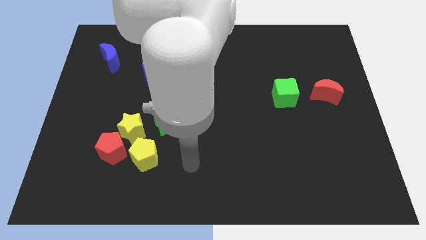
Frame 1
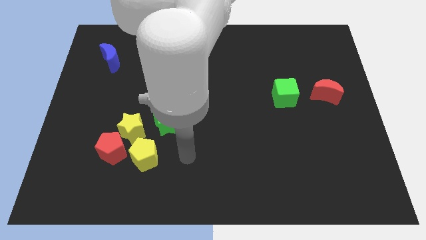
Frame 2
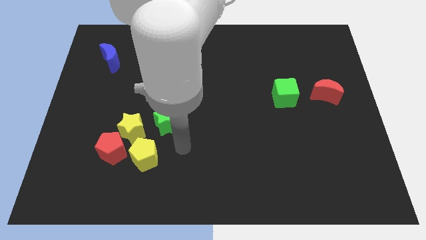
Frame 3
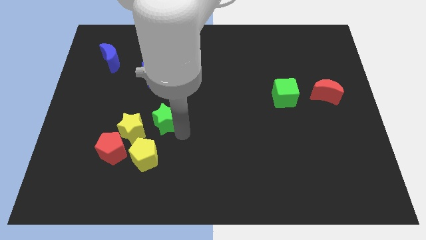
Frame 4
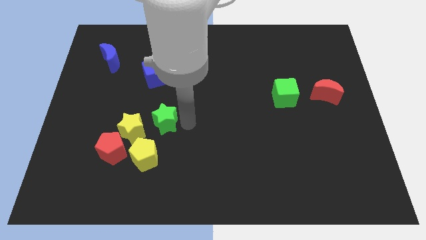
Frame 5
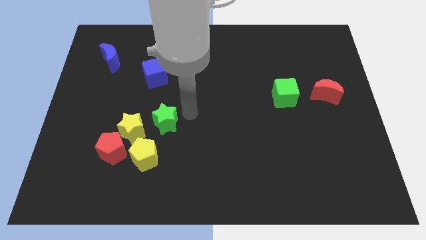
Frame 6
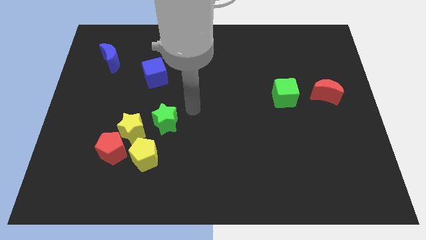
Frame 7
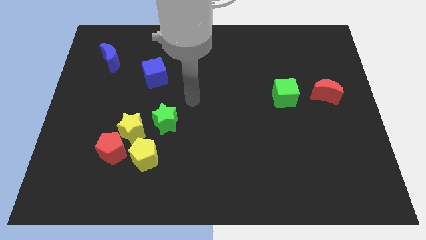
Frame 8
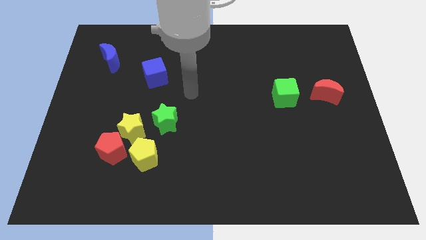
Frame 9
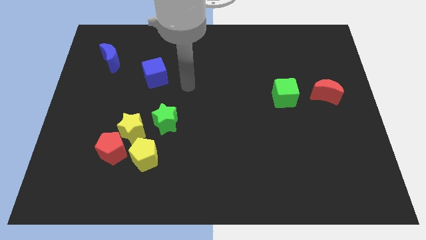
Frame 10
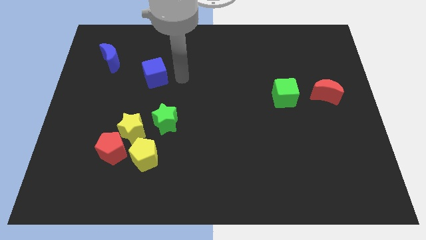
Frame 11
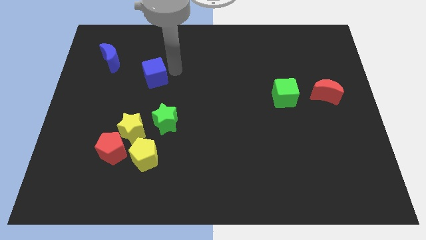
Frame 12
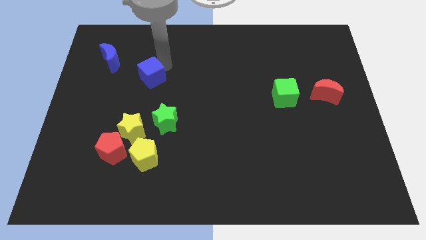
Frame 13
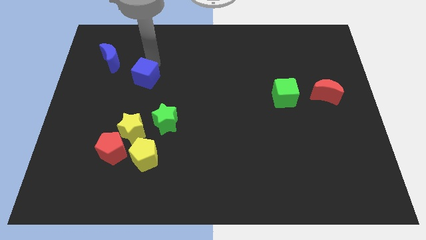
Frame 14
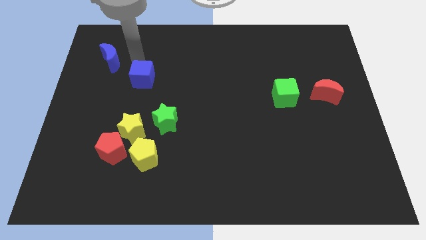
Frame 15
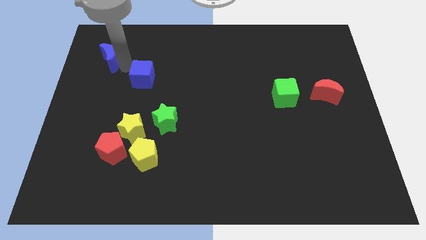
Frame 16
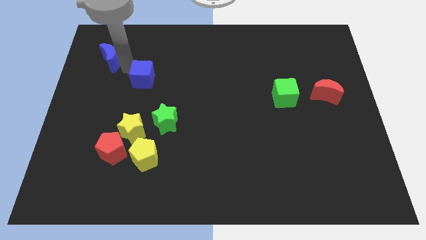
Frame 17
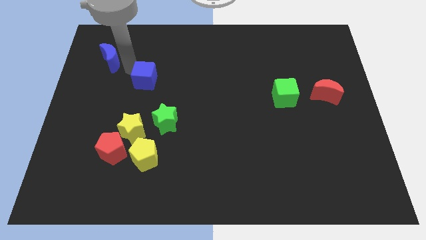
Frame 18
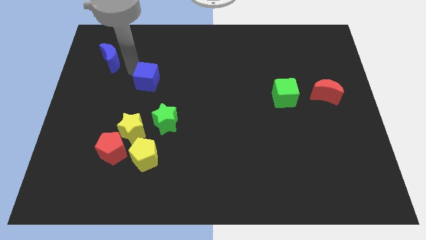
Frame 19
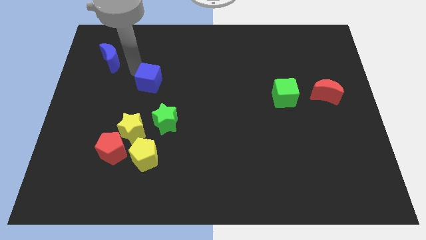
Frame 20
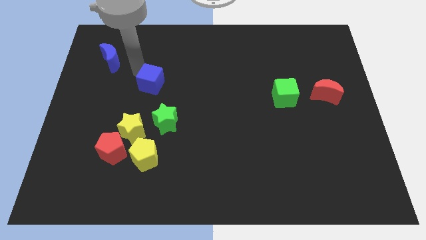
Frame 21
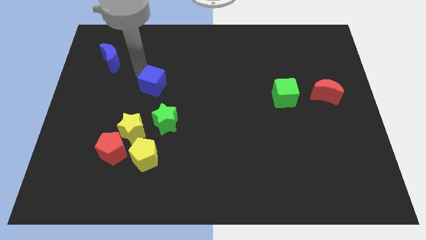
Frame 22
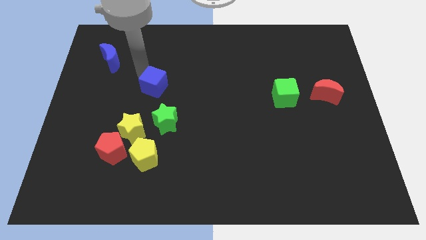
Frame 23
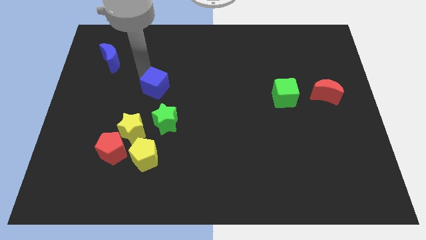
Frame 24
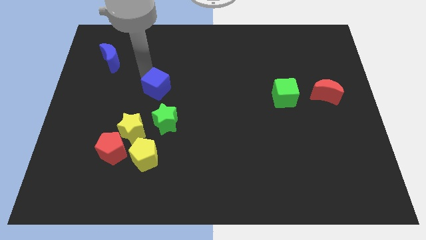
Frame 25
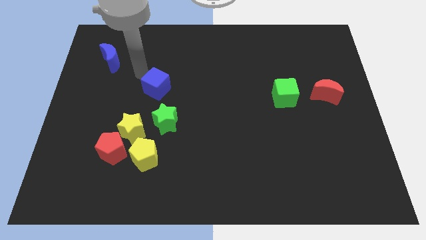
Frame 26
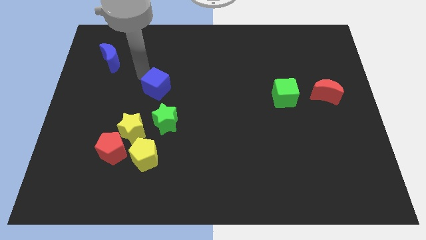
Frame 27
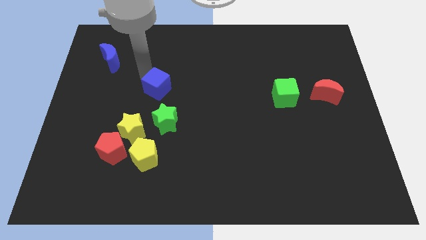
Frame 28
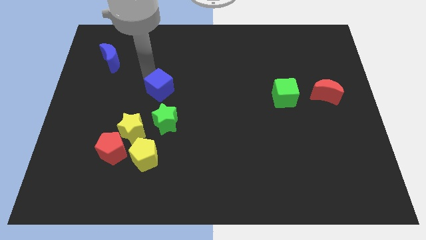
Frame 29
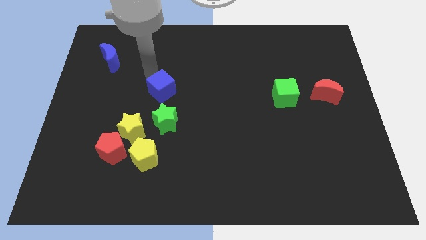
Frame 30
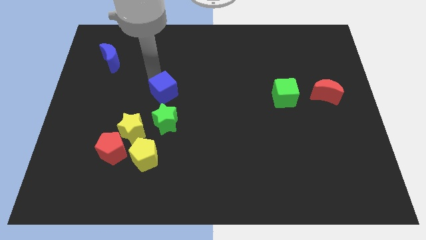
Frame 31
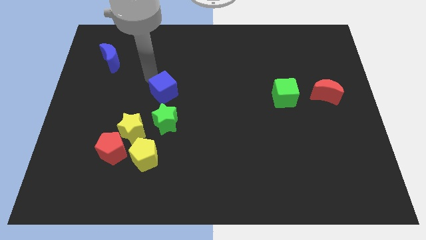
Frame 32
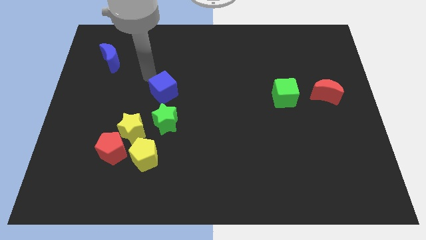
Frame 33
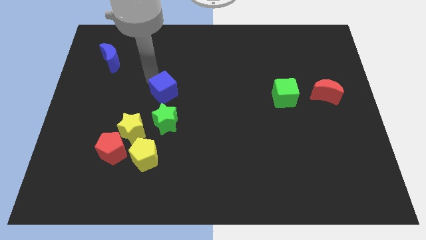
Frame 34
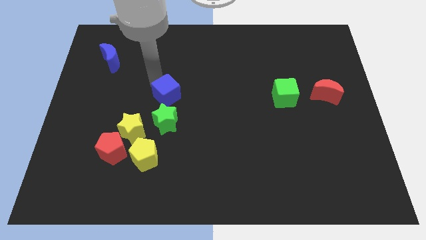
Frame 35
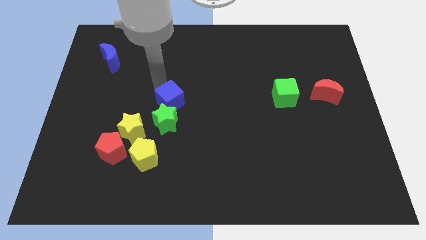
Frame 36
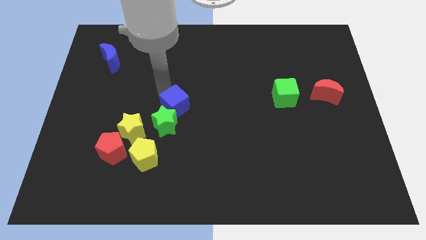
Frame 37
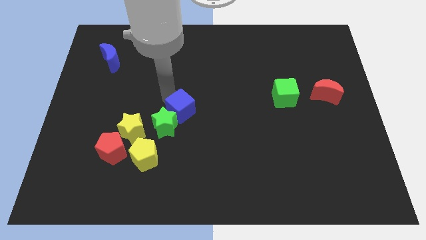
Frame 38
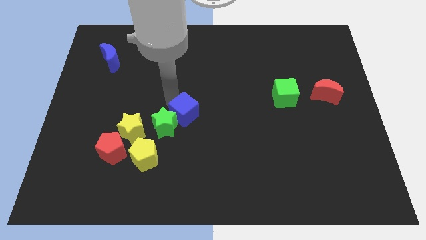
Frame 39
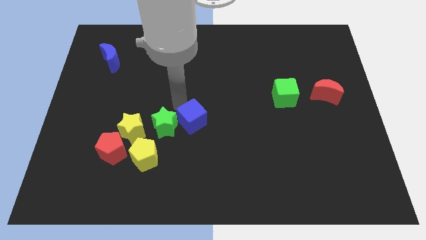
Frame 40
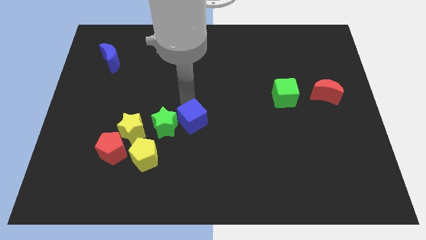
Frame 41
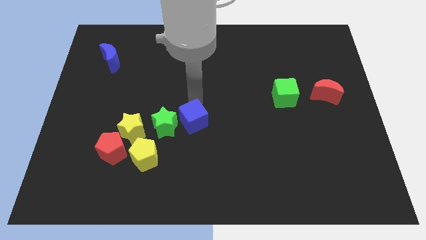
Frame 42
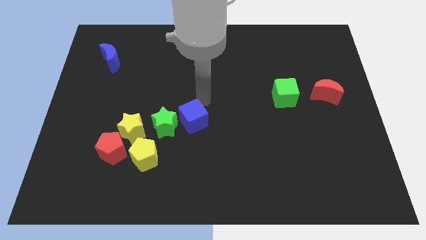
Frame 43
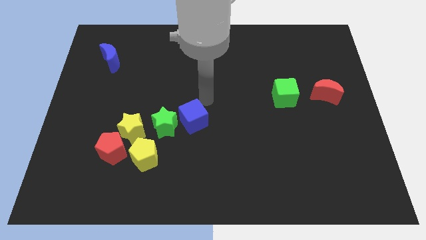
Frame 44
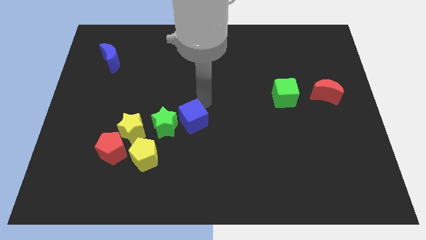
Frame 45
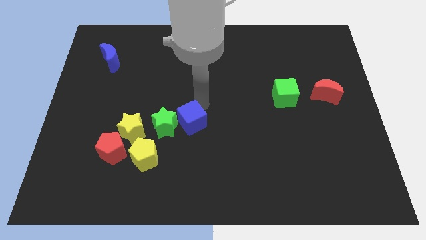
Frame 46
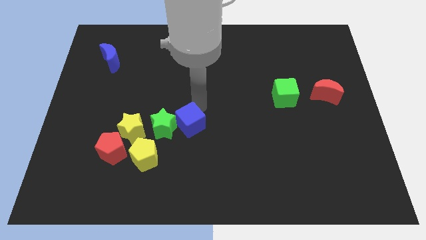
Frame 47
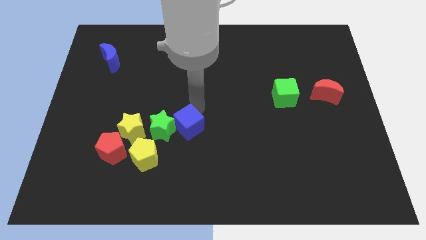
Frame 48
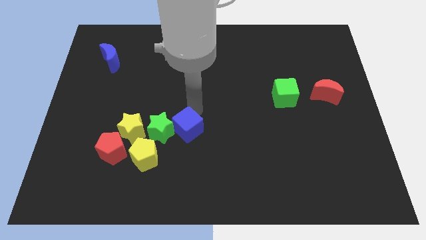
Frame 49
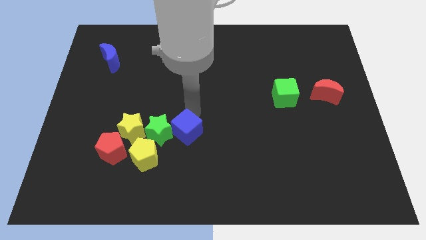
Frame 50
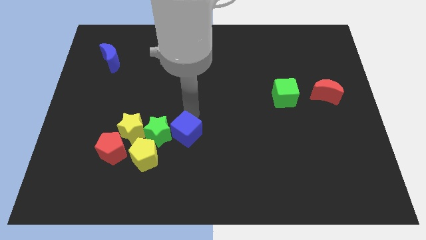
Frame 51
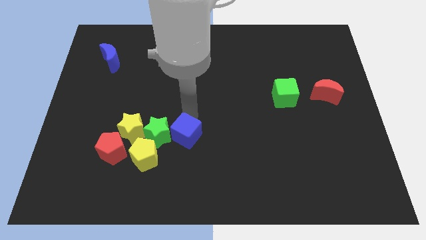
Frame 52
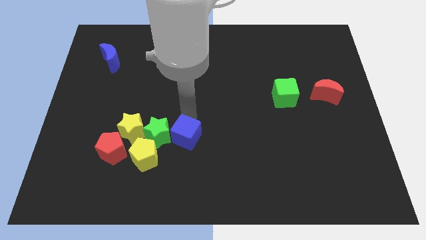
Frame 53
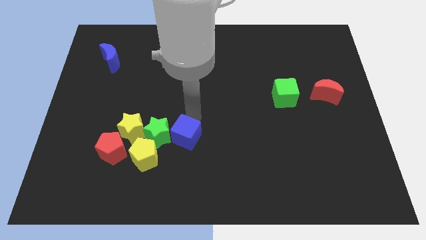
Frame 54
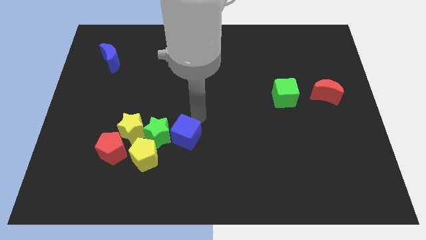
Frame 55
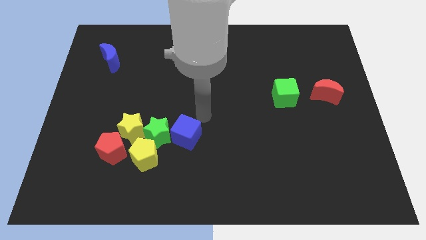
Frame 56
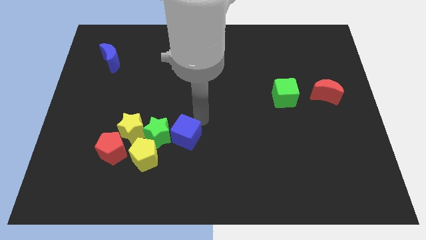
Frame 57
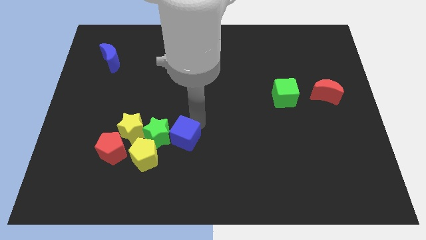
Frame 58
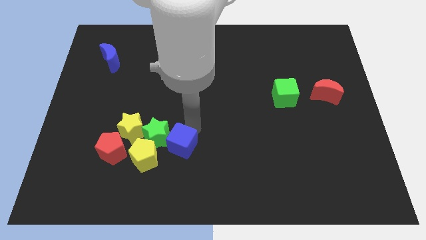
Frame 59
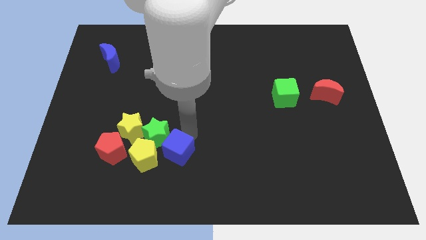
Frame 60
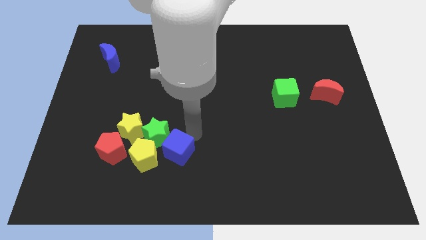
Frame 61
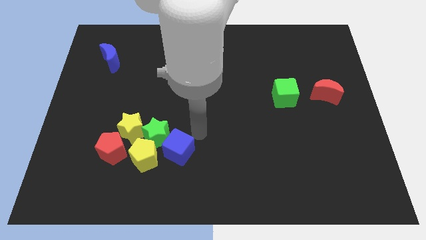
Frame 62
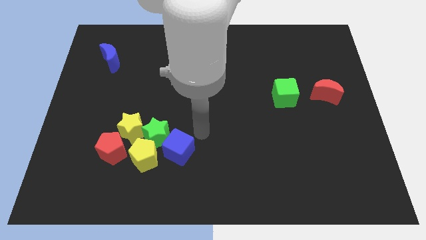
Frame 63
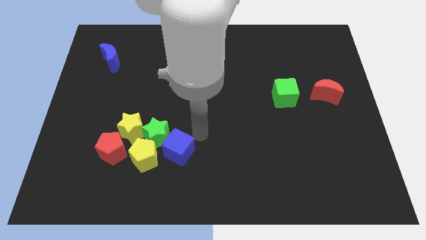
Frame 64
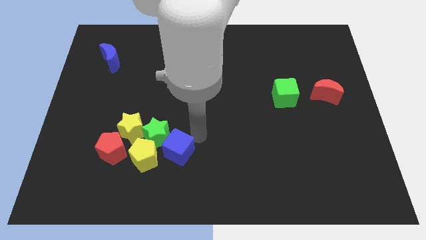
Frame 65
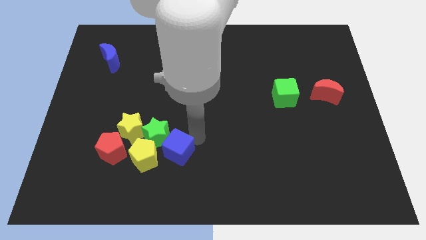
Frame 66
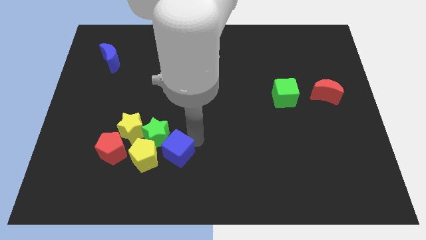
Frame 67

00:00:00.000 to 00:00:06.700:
put the blue cube to the bottom right of the yellow star
